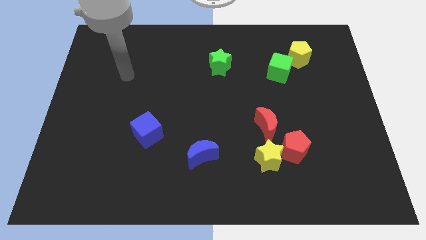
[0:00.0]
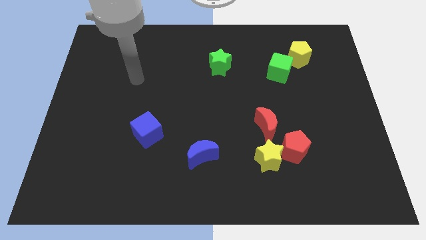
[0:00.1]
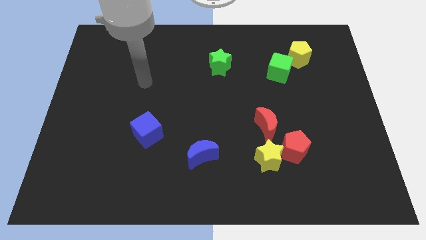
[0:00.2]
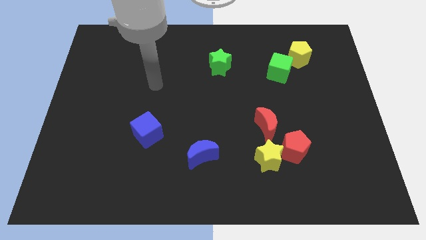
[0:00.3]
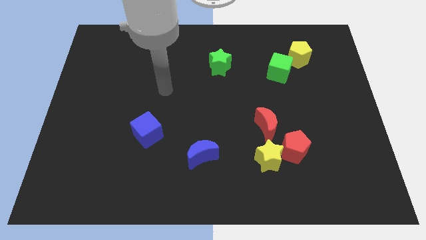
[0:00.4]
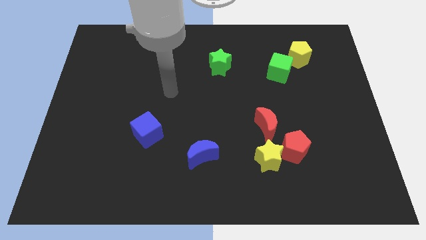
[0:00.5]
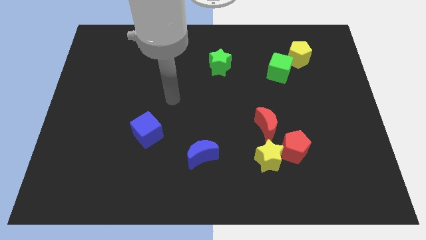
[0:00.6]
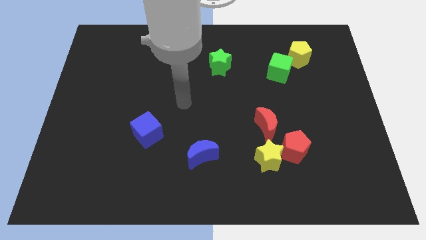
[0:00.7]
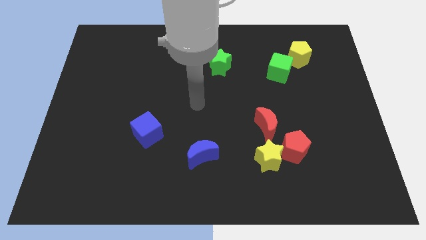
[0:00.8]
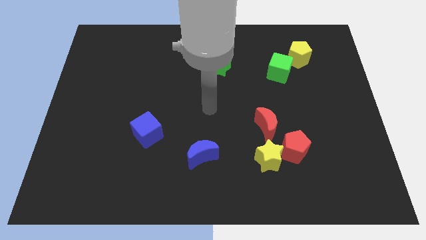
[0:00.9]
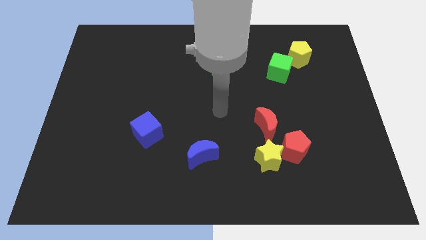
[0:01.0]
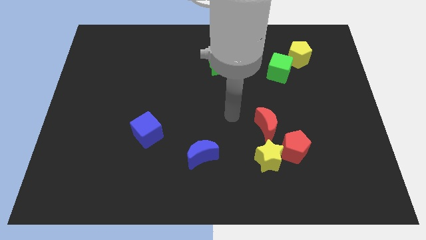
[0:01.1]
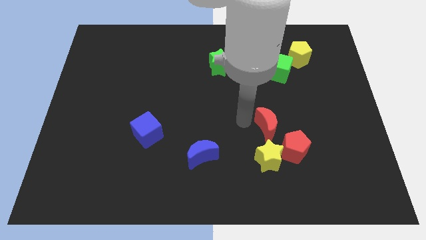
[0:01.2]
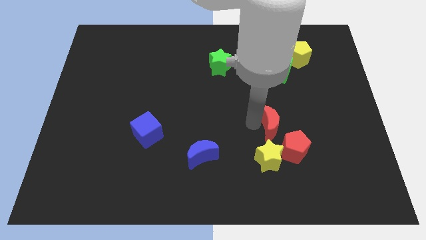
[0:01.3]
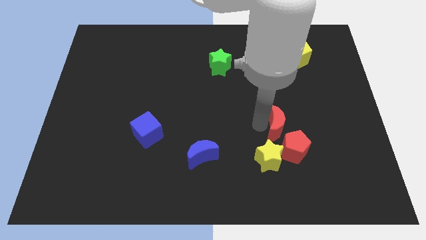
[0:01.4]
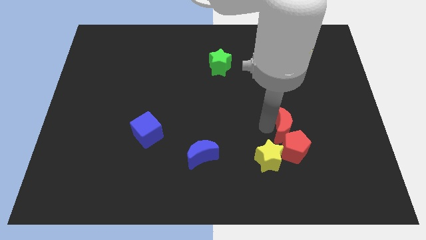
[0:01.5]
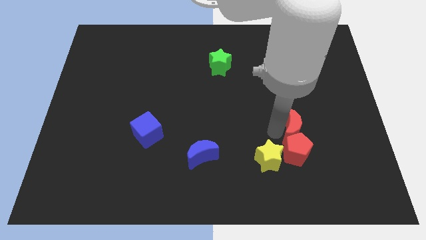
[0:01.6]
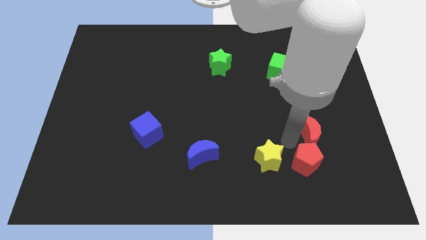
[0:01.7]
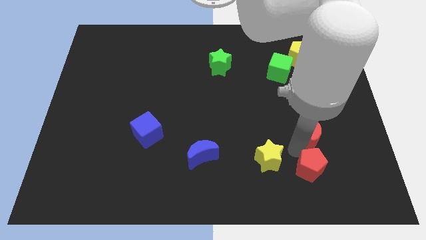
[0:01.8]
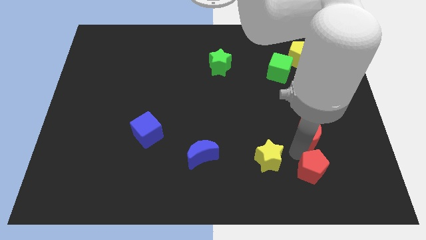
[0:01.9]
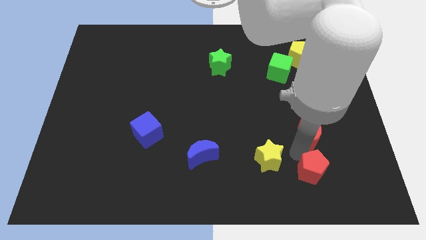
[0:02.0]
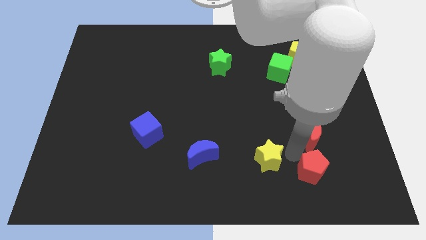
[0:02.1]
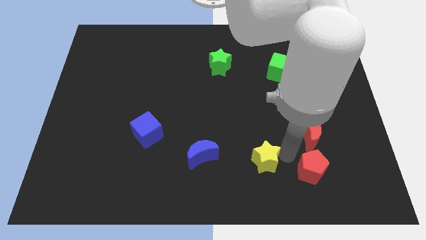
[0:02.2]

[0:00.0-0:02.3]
separate the yellow star from the red pentagon and red moon

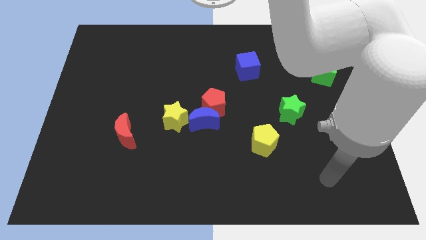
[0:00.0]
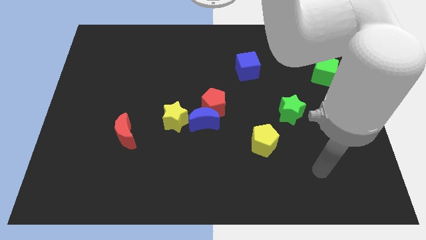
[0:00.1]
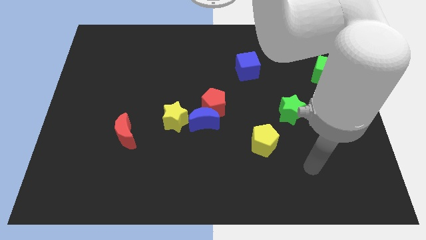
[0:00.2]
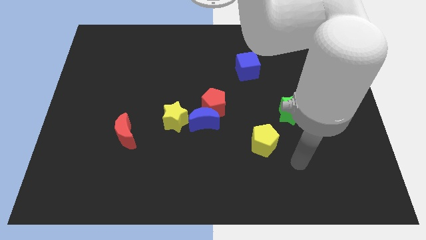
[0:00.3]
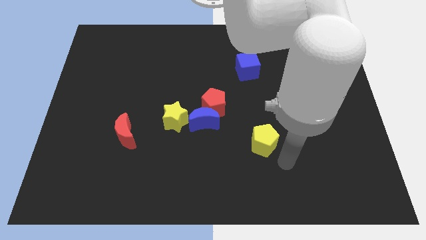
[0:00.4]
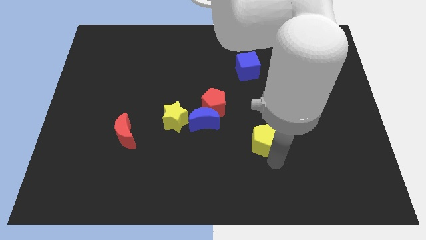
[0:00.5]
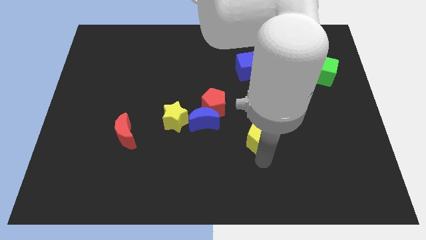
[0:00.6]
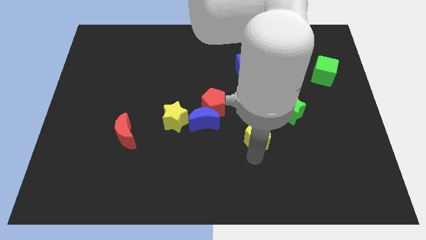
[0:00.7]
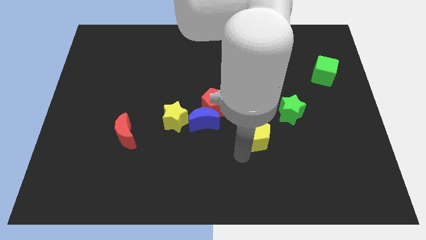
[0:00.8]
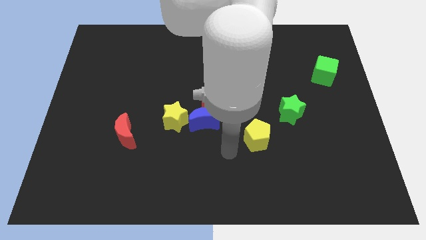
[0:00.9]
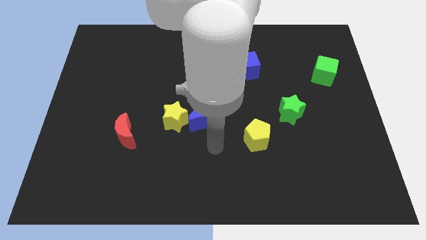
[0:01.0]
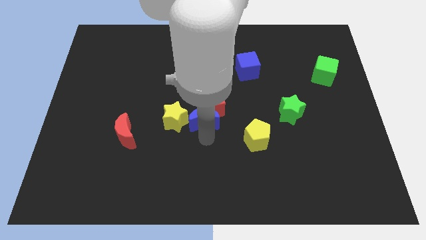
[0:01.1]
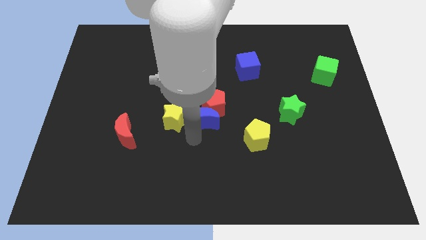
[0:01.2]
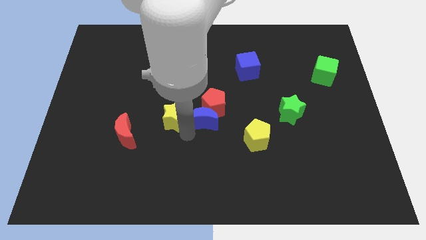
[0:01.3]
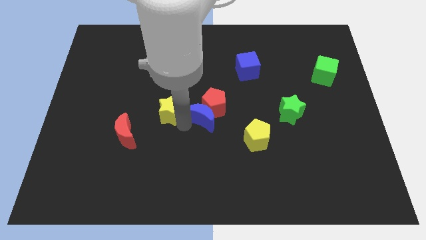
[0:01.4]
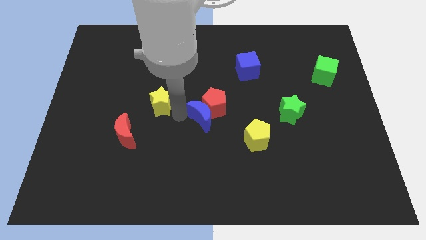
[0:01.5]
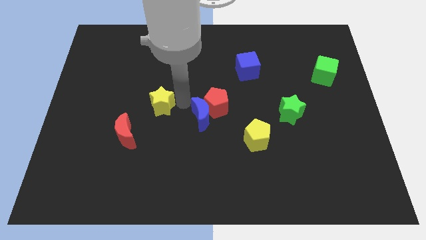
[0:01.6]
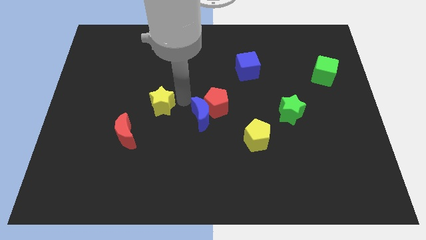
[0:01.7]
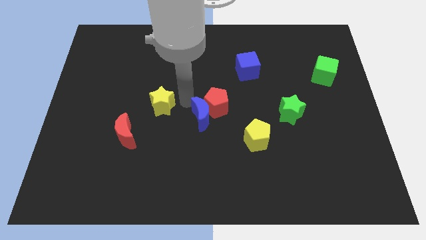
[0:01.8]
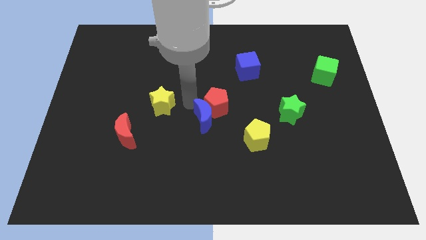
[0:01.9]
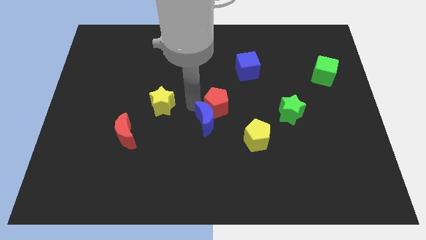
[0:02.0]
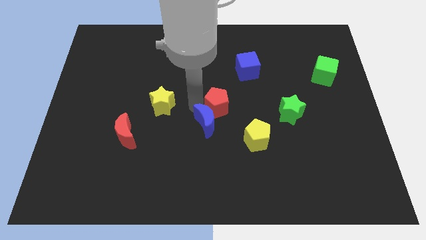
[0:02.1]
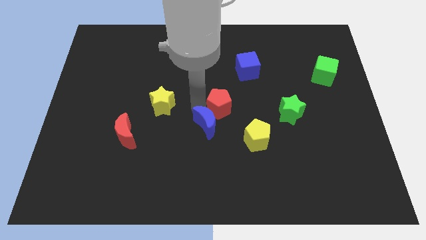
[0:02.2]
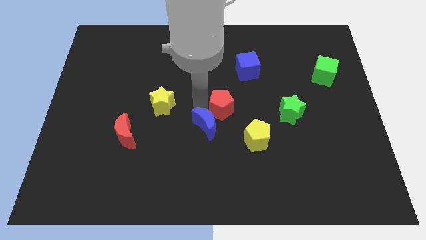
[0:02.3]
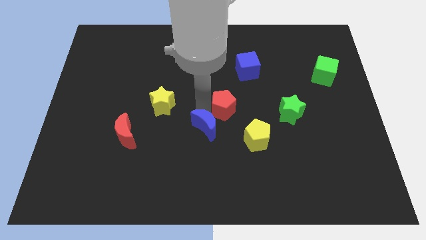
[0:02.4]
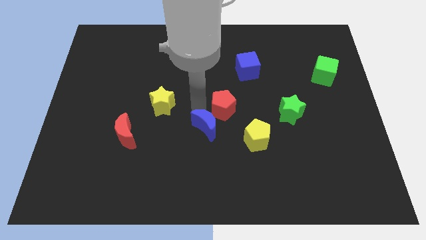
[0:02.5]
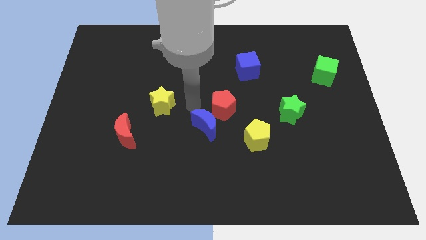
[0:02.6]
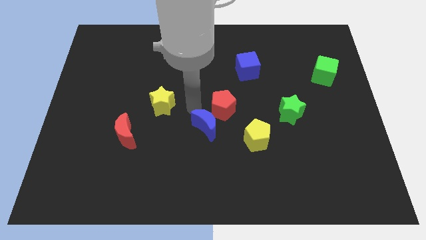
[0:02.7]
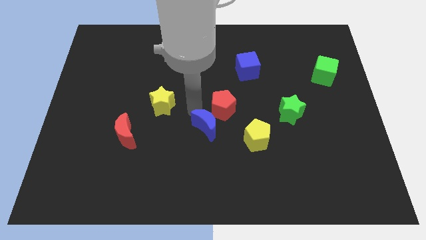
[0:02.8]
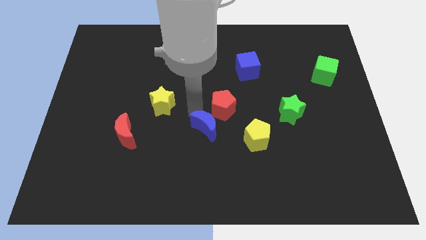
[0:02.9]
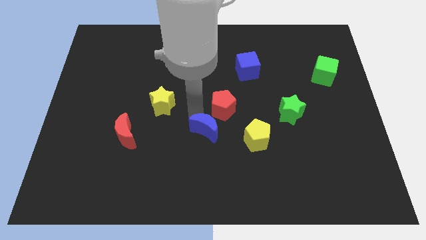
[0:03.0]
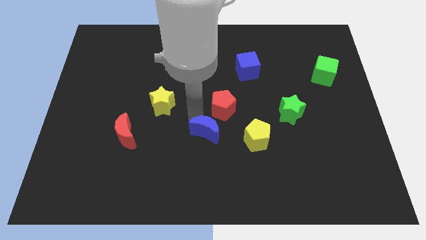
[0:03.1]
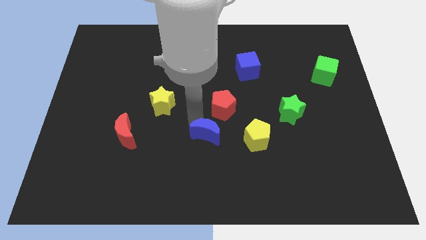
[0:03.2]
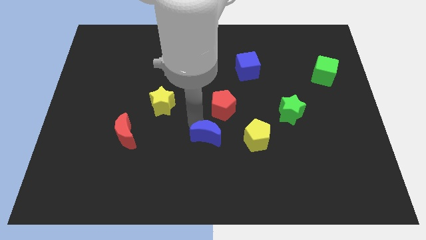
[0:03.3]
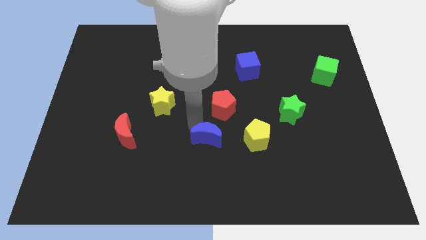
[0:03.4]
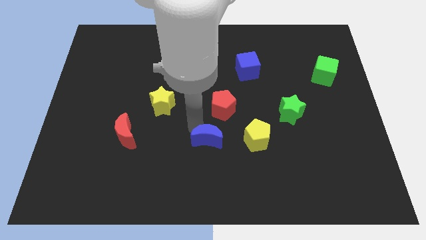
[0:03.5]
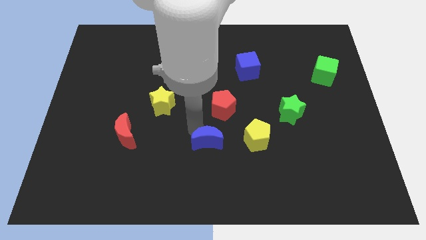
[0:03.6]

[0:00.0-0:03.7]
move the blue moon away from the red pentagon and yellow star

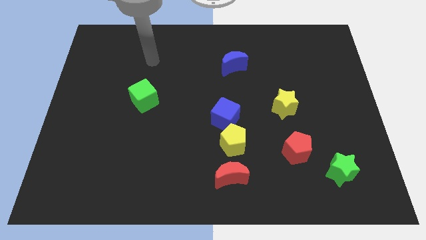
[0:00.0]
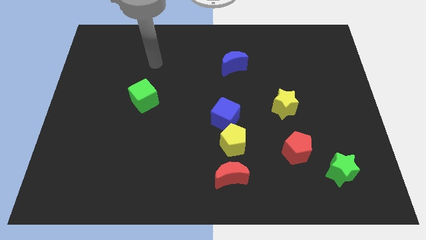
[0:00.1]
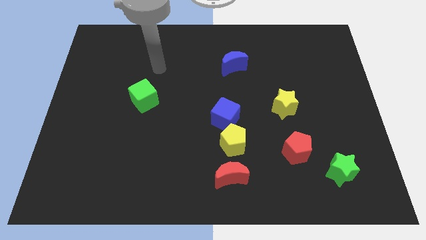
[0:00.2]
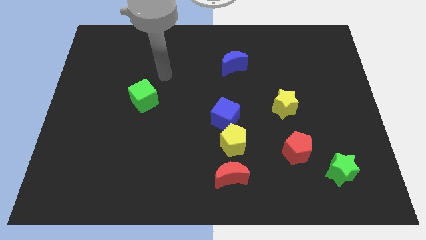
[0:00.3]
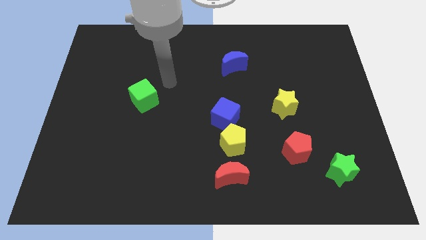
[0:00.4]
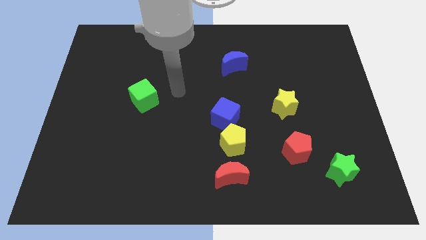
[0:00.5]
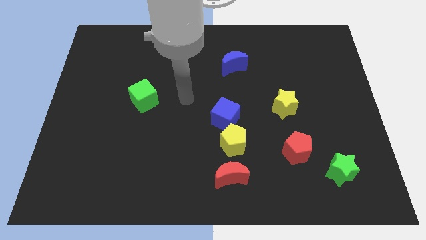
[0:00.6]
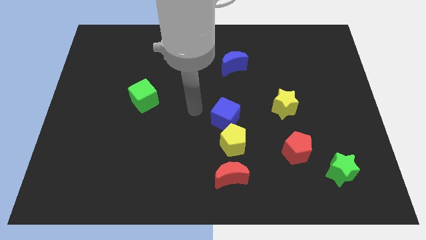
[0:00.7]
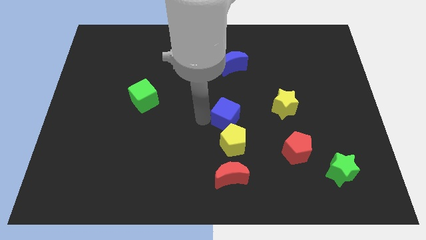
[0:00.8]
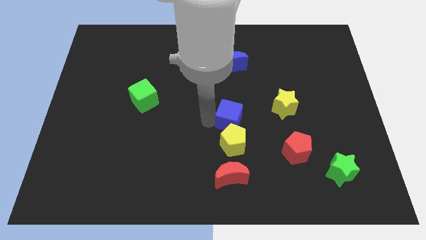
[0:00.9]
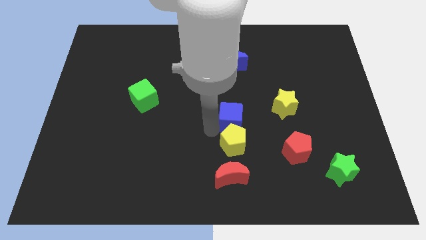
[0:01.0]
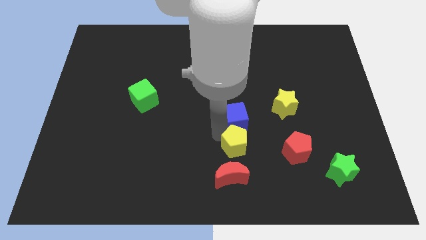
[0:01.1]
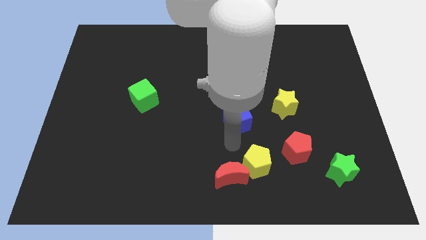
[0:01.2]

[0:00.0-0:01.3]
move the blue cube away from the yellow pentagon

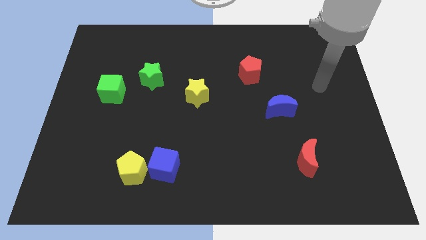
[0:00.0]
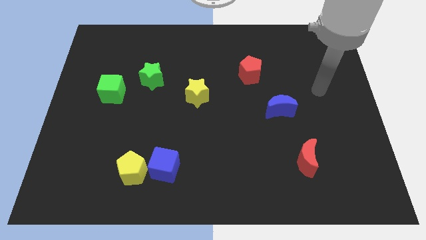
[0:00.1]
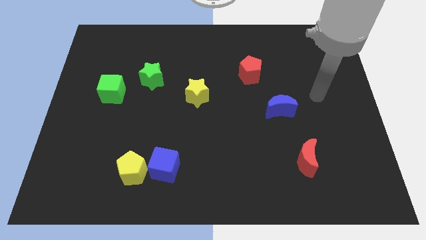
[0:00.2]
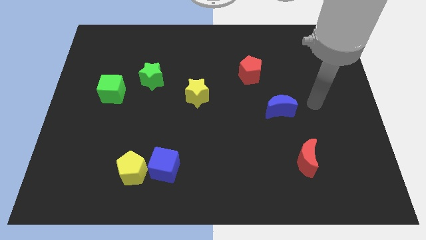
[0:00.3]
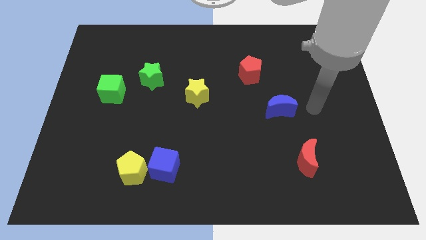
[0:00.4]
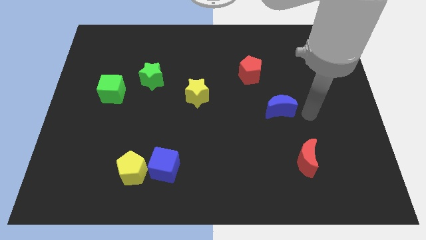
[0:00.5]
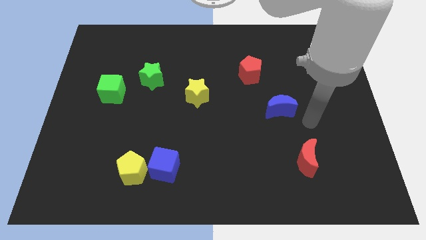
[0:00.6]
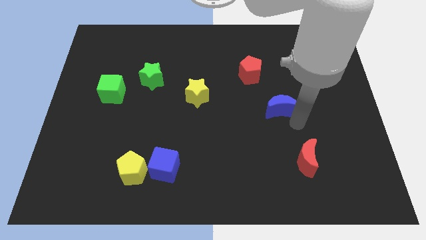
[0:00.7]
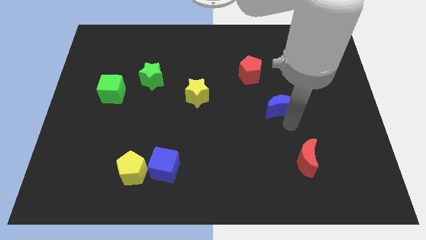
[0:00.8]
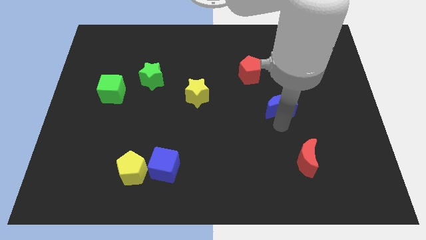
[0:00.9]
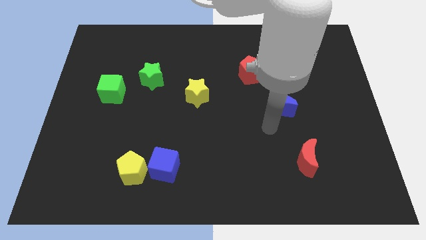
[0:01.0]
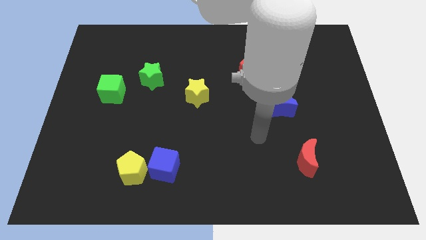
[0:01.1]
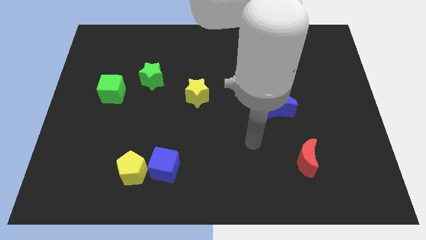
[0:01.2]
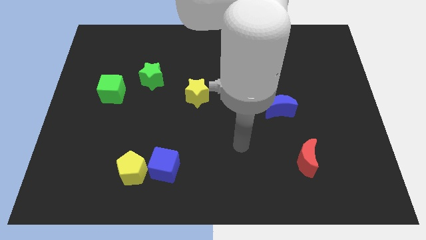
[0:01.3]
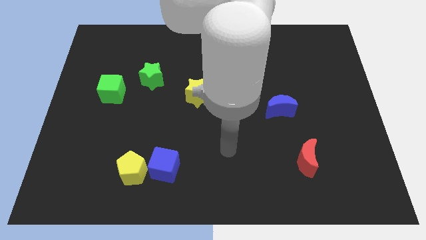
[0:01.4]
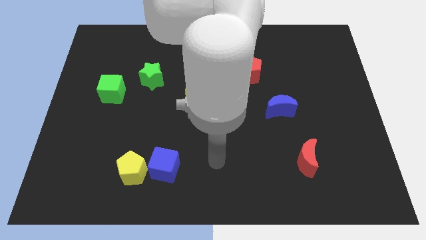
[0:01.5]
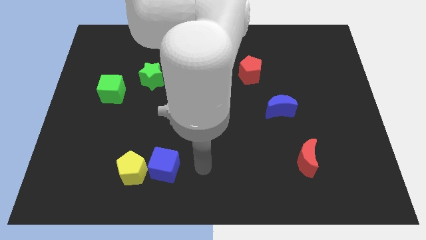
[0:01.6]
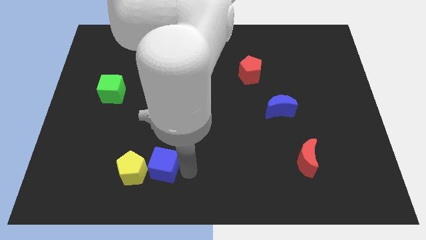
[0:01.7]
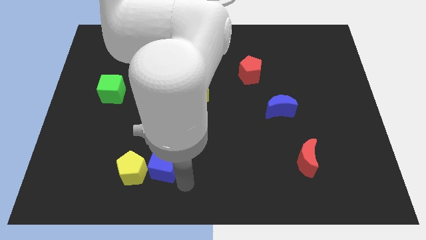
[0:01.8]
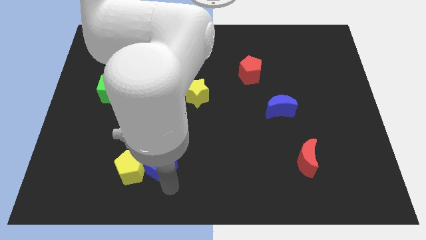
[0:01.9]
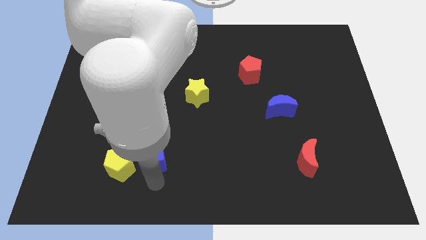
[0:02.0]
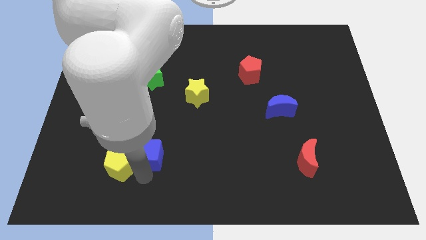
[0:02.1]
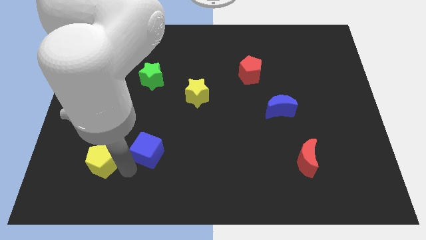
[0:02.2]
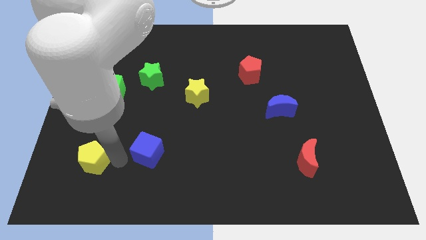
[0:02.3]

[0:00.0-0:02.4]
pull the blue cube apart from the yellow pentagon
